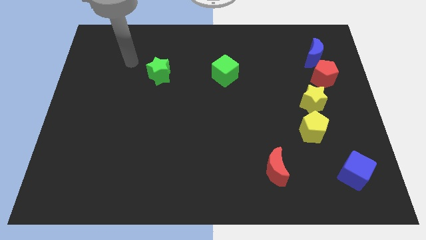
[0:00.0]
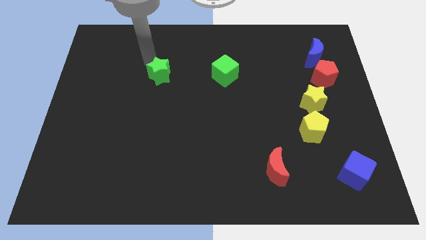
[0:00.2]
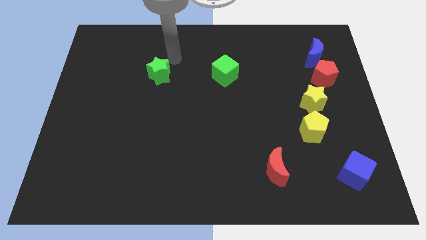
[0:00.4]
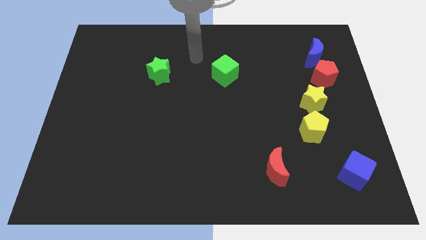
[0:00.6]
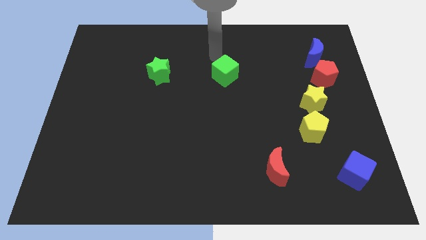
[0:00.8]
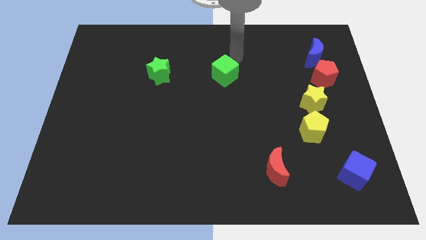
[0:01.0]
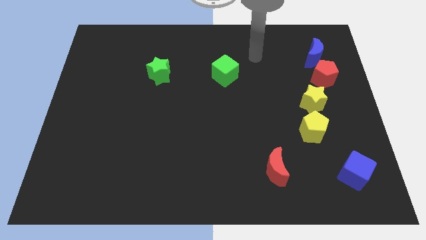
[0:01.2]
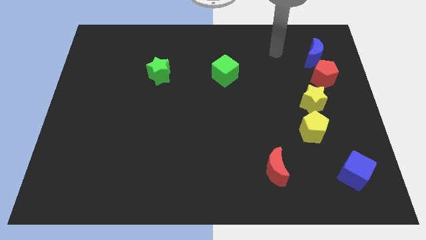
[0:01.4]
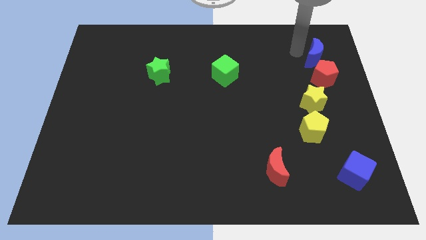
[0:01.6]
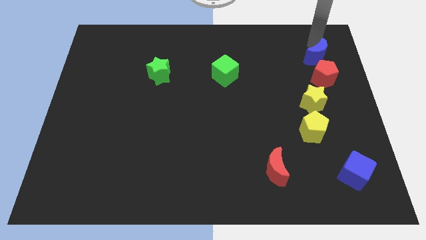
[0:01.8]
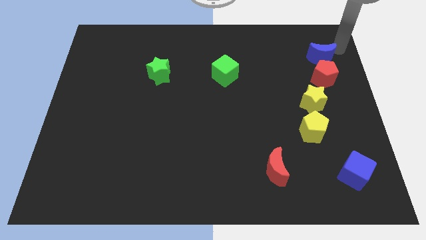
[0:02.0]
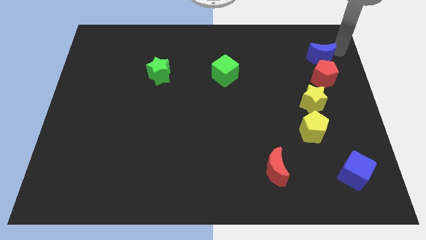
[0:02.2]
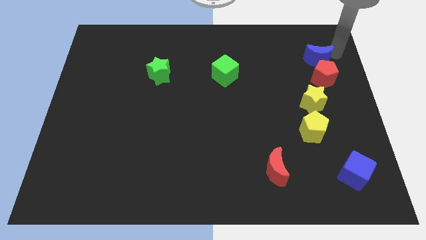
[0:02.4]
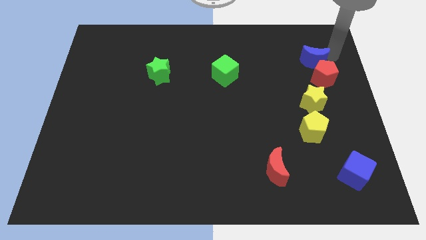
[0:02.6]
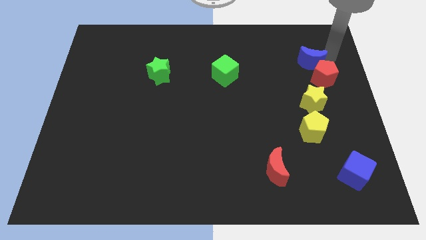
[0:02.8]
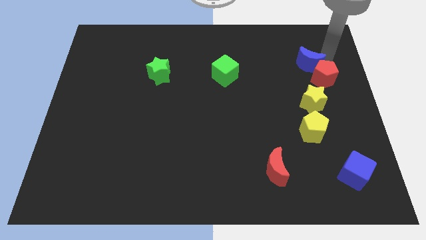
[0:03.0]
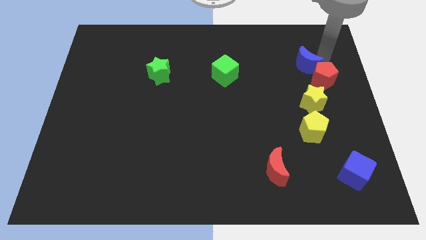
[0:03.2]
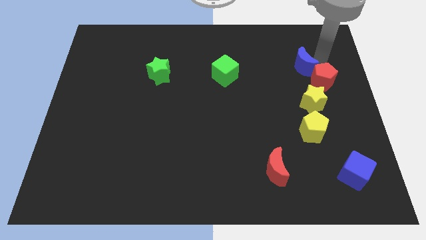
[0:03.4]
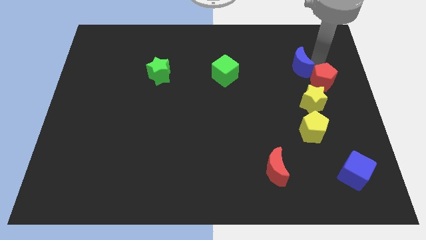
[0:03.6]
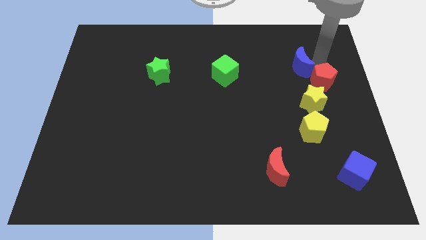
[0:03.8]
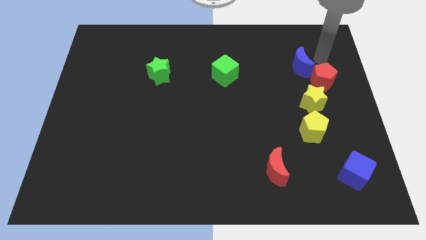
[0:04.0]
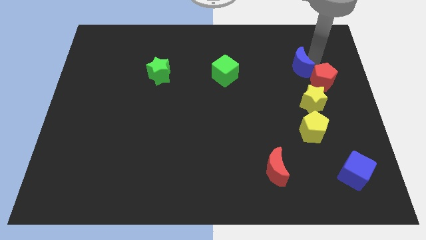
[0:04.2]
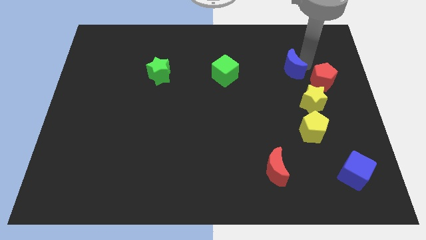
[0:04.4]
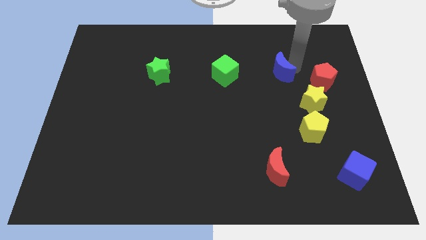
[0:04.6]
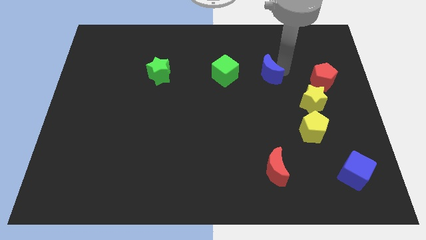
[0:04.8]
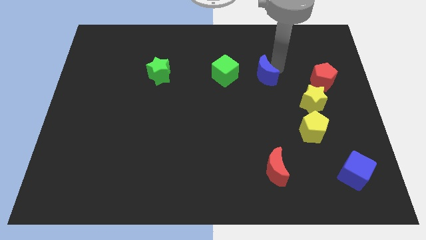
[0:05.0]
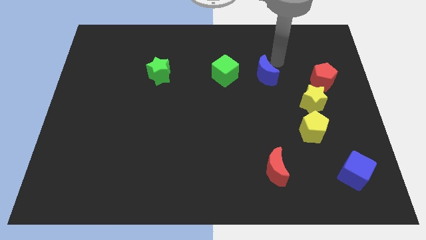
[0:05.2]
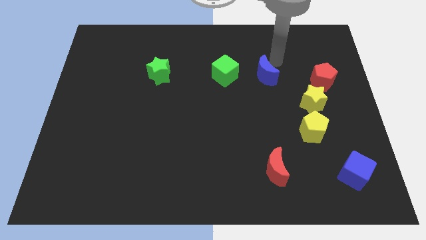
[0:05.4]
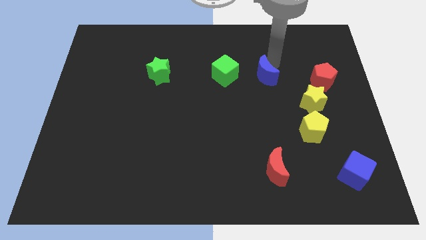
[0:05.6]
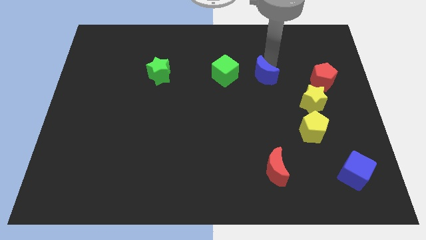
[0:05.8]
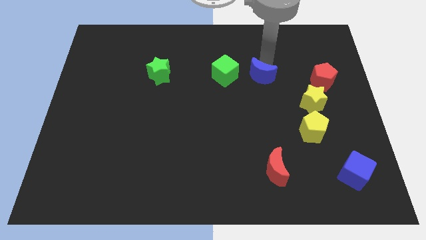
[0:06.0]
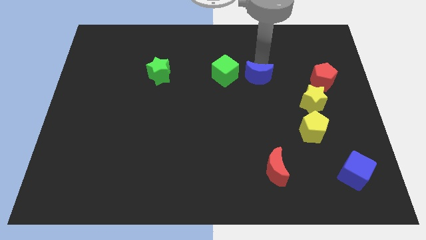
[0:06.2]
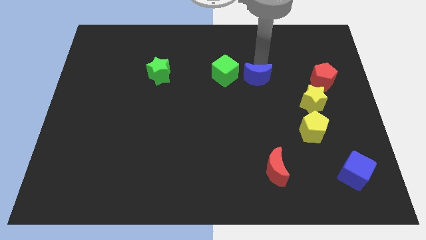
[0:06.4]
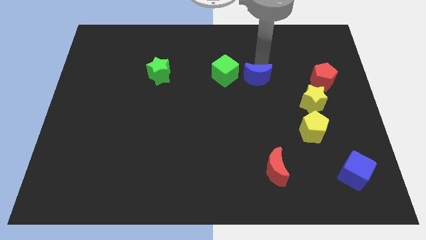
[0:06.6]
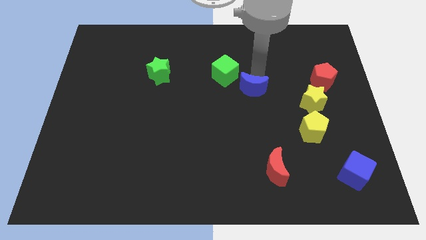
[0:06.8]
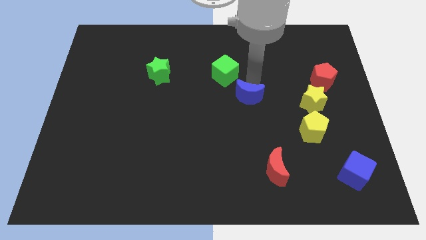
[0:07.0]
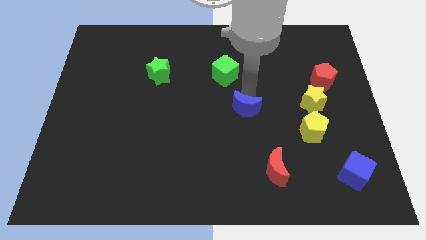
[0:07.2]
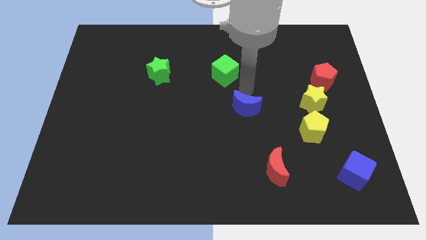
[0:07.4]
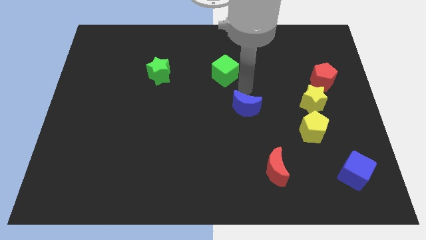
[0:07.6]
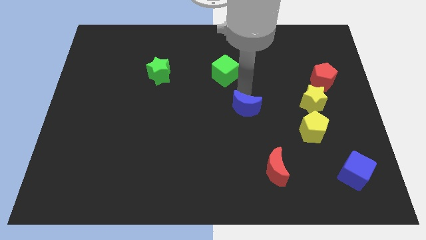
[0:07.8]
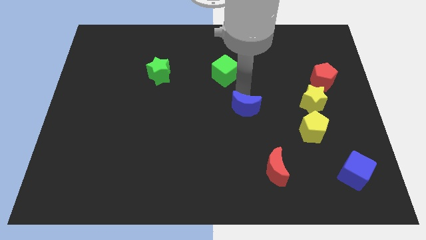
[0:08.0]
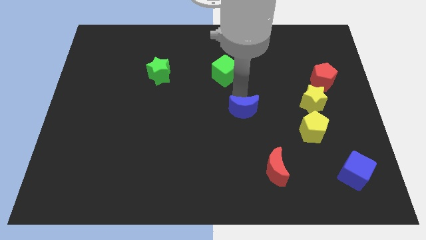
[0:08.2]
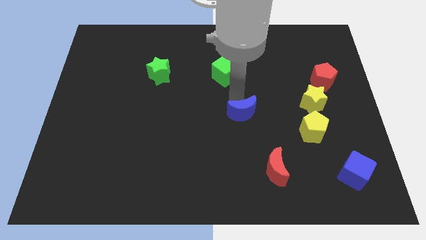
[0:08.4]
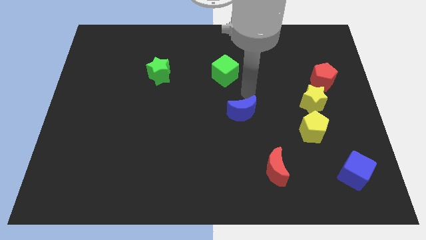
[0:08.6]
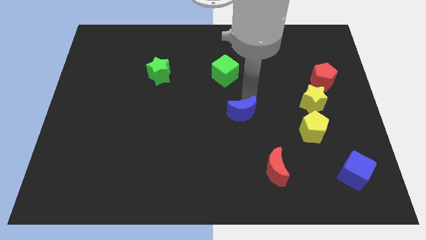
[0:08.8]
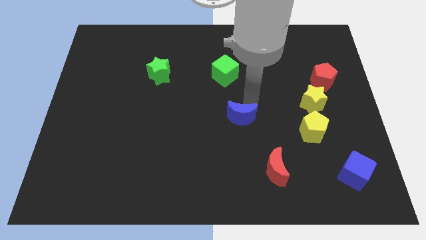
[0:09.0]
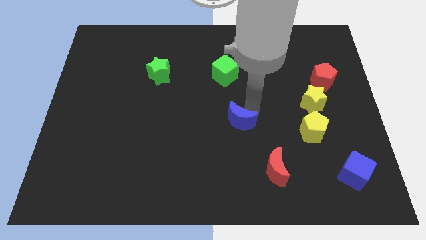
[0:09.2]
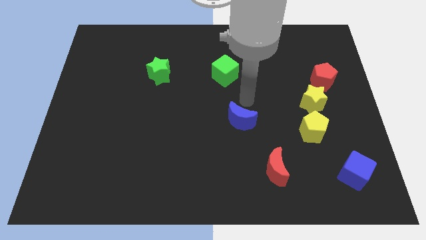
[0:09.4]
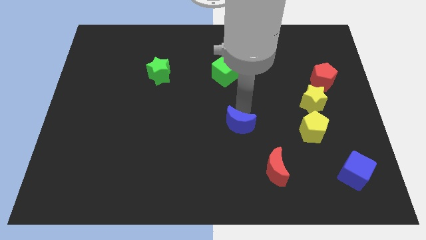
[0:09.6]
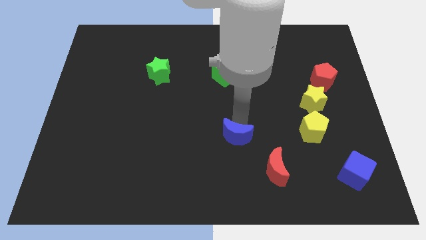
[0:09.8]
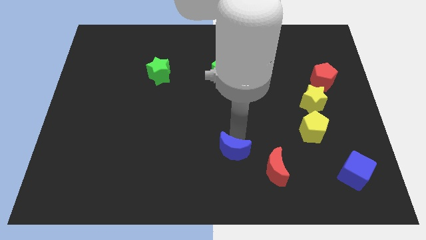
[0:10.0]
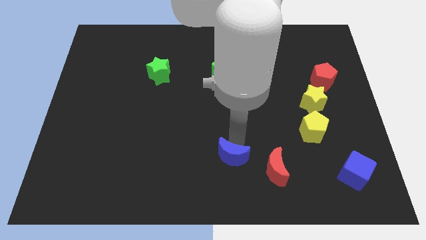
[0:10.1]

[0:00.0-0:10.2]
put the blue moon to the bottom side
